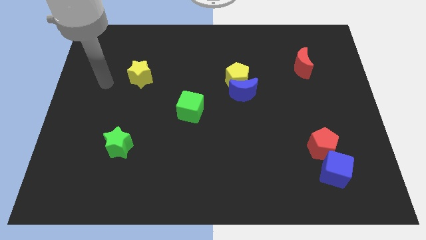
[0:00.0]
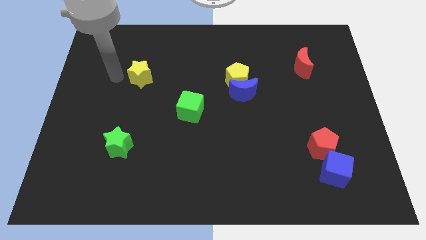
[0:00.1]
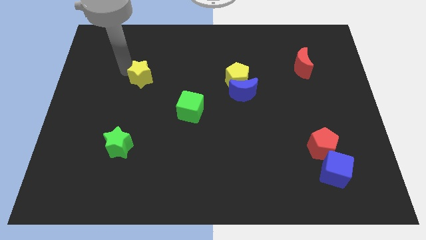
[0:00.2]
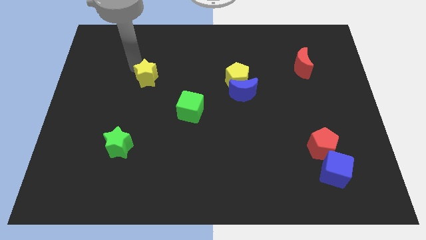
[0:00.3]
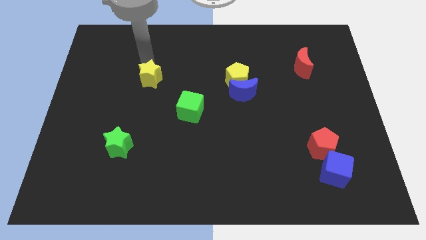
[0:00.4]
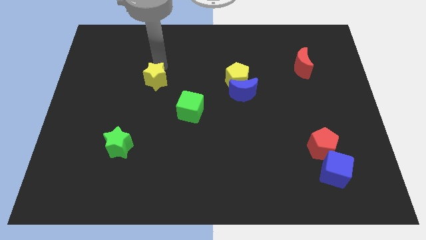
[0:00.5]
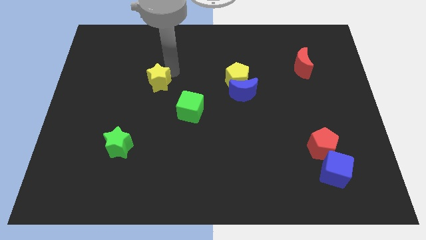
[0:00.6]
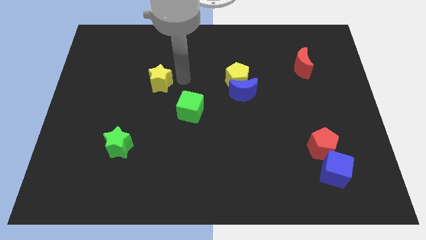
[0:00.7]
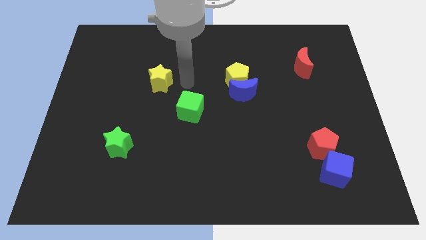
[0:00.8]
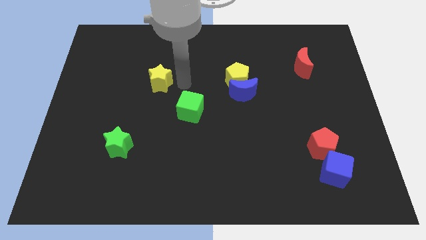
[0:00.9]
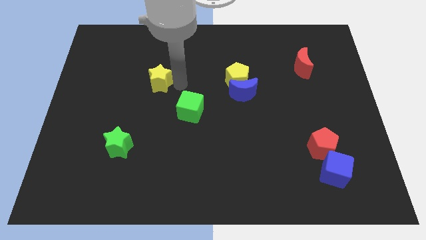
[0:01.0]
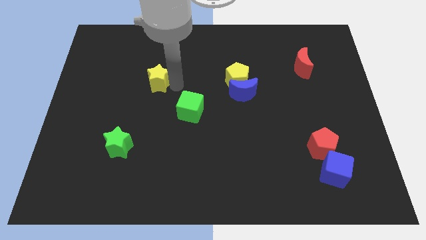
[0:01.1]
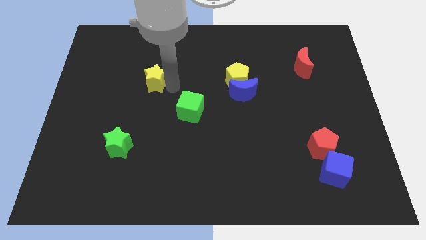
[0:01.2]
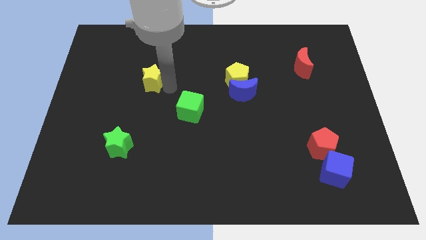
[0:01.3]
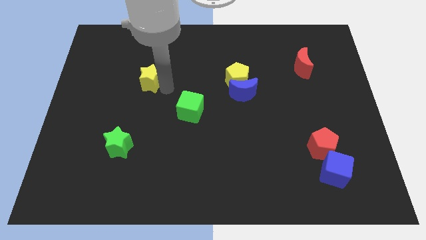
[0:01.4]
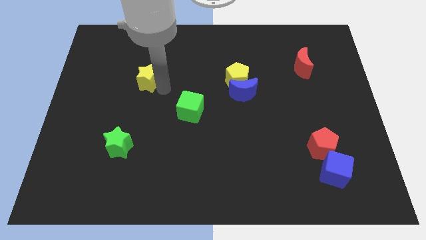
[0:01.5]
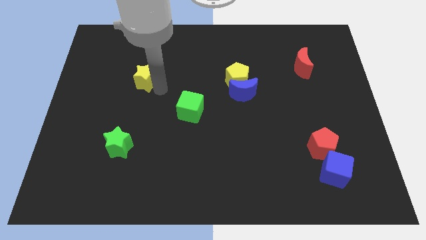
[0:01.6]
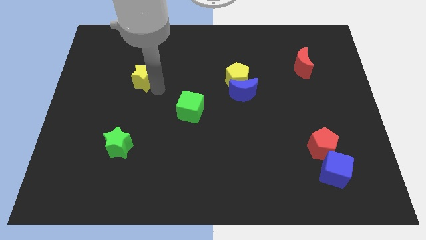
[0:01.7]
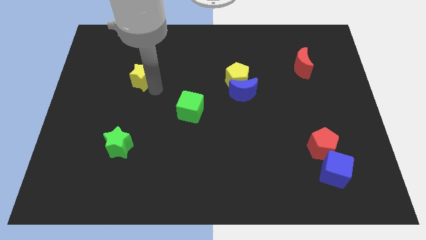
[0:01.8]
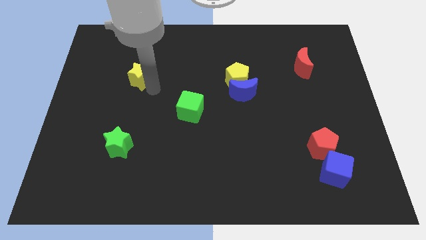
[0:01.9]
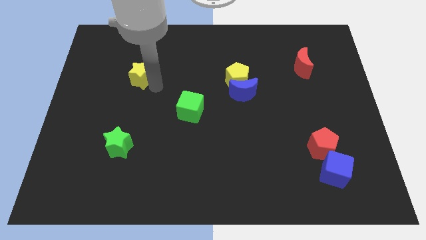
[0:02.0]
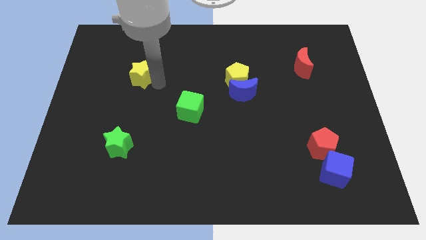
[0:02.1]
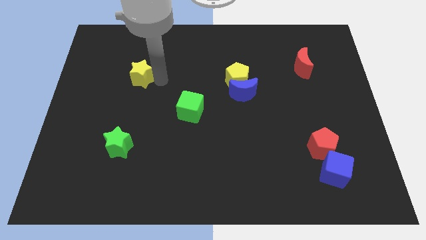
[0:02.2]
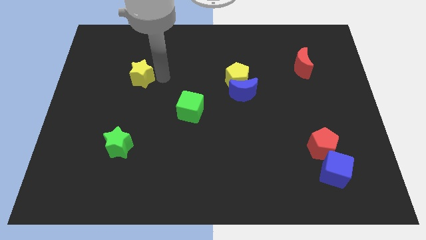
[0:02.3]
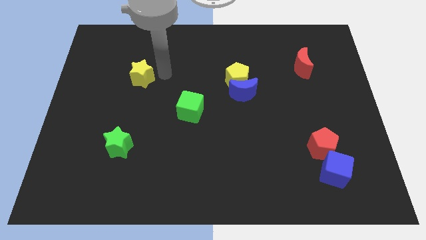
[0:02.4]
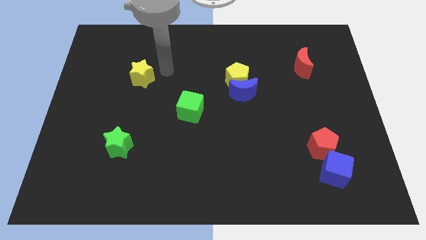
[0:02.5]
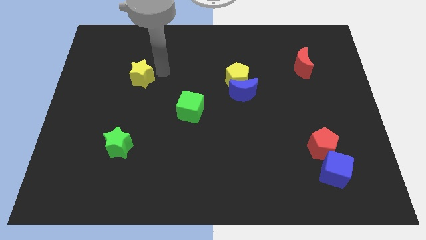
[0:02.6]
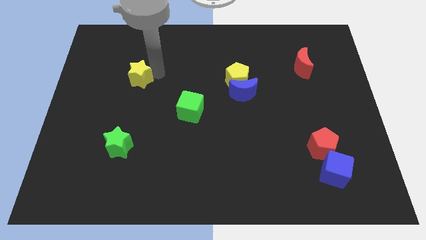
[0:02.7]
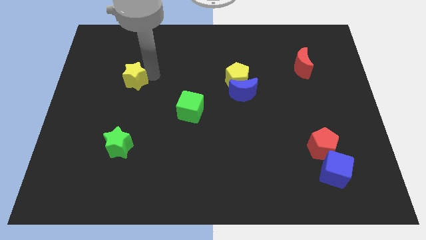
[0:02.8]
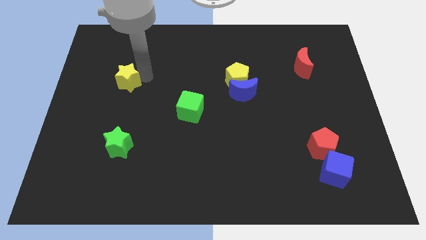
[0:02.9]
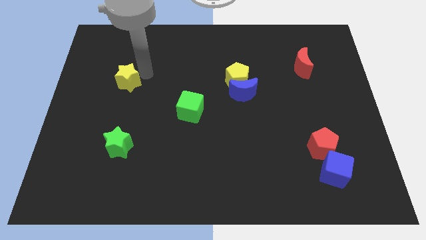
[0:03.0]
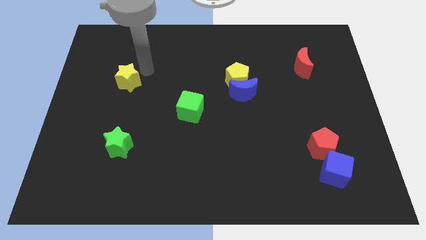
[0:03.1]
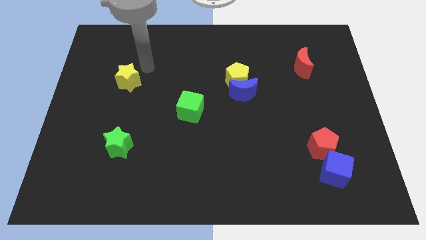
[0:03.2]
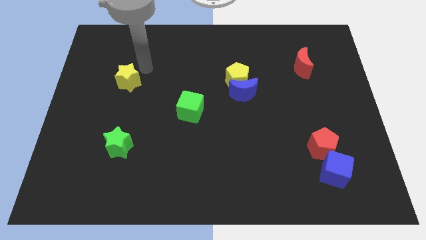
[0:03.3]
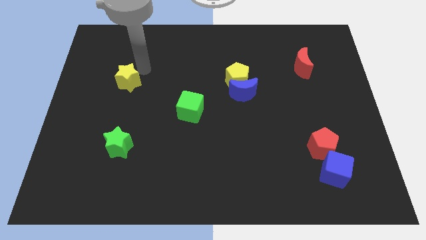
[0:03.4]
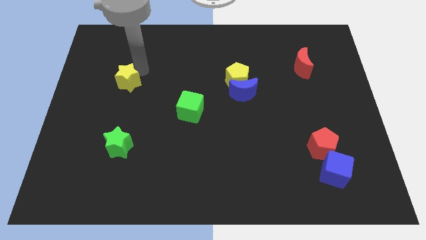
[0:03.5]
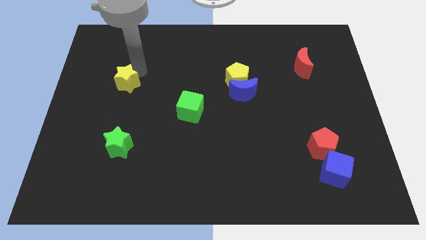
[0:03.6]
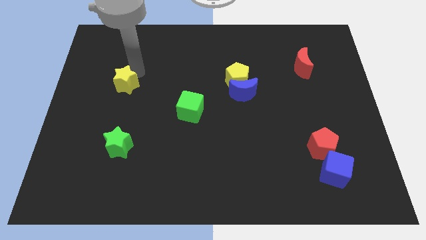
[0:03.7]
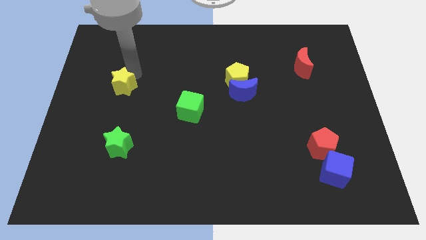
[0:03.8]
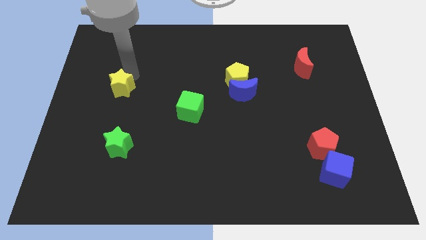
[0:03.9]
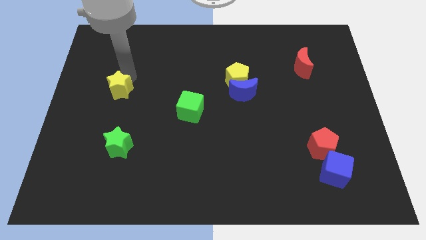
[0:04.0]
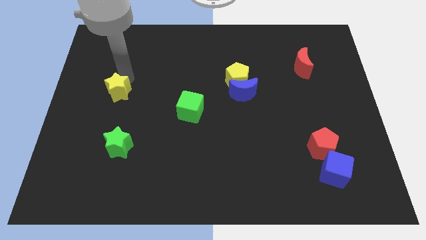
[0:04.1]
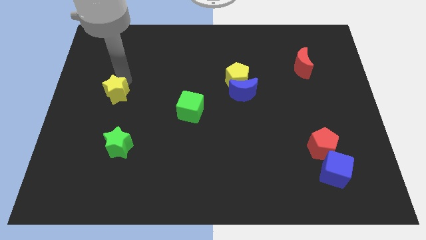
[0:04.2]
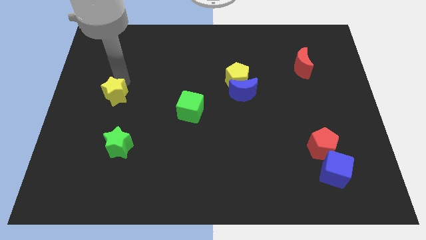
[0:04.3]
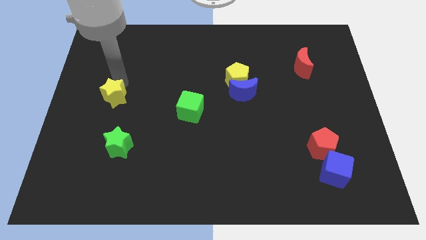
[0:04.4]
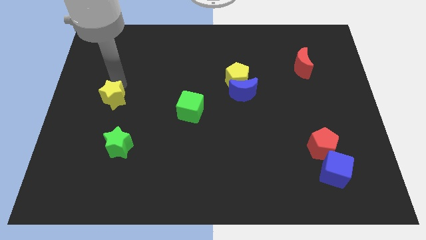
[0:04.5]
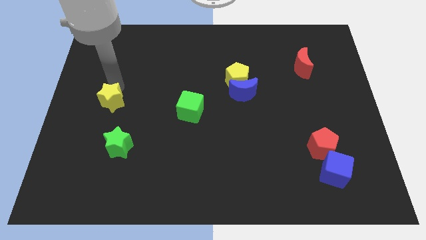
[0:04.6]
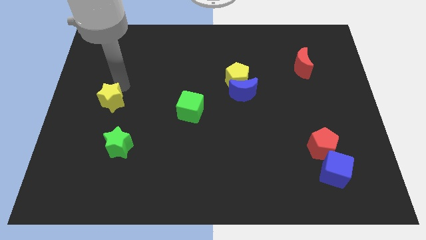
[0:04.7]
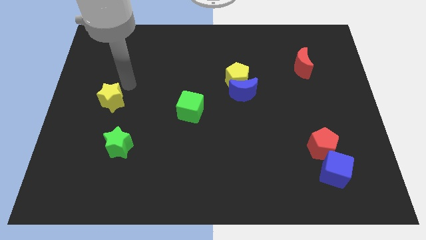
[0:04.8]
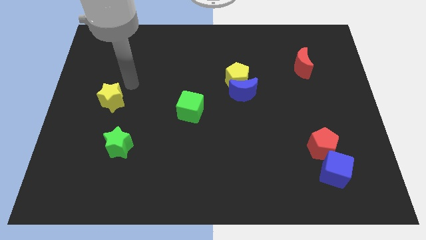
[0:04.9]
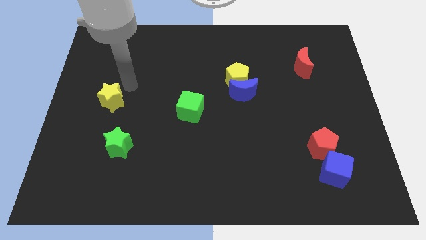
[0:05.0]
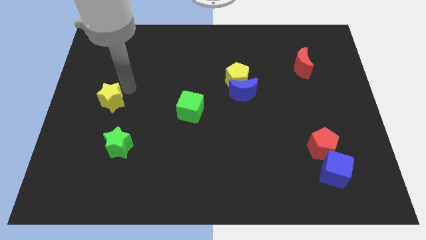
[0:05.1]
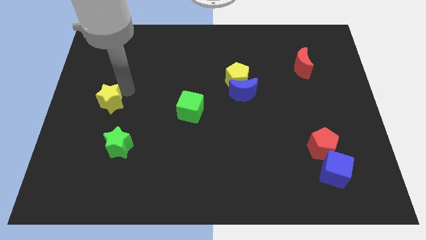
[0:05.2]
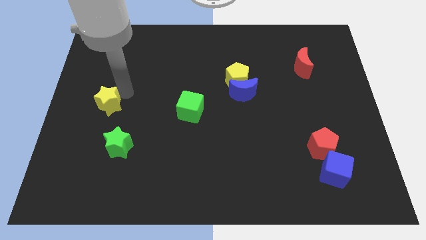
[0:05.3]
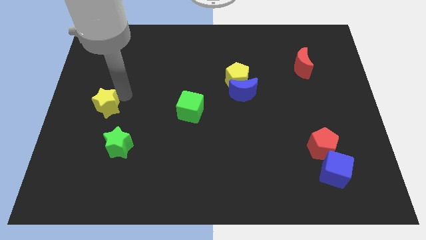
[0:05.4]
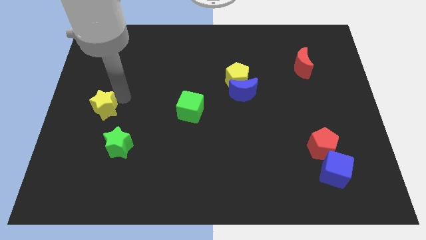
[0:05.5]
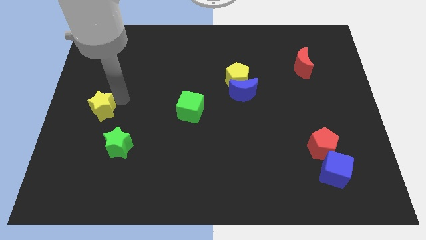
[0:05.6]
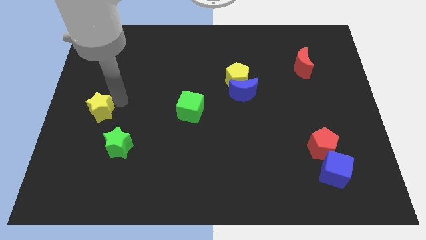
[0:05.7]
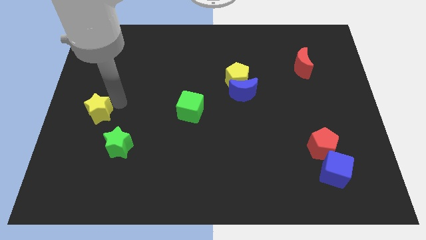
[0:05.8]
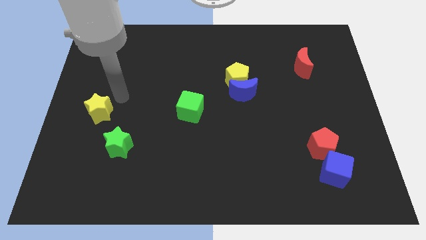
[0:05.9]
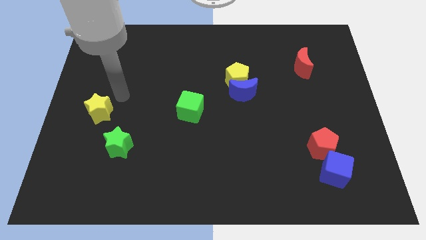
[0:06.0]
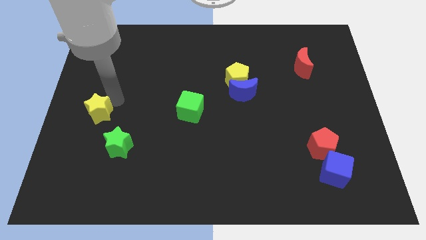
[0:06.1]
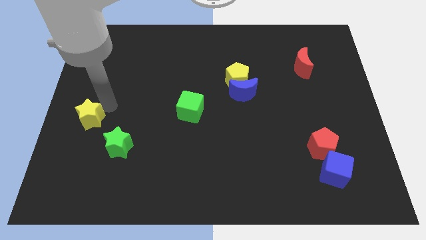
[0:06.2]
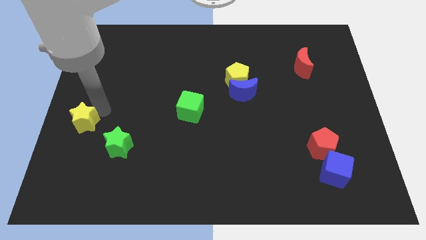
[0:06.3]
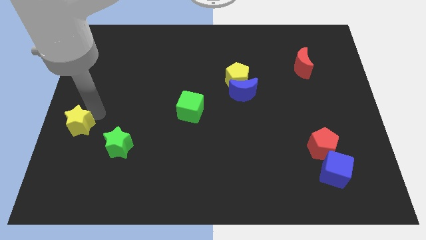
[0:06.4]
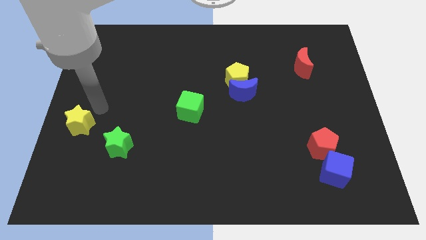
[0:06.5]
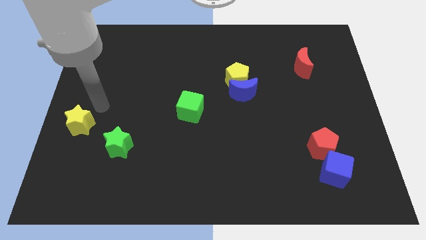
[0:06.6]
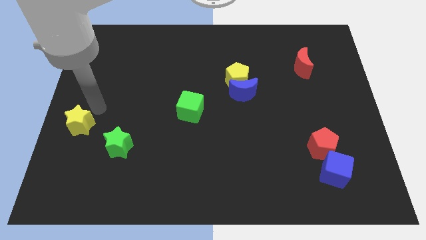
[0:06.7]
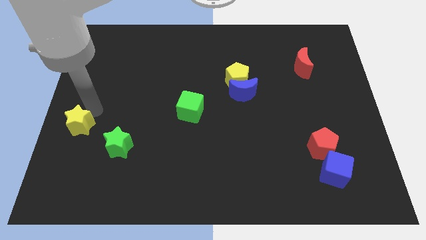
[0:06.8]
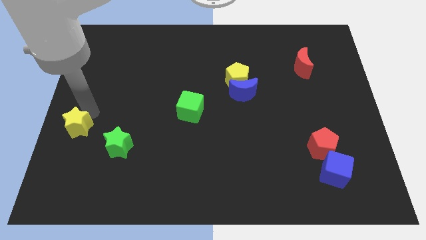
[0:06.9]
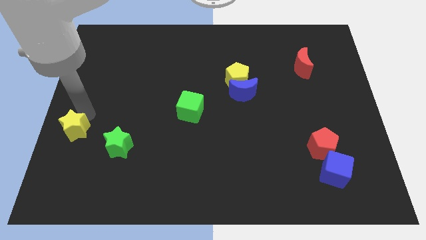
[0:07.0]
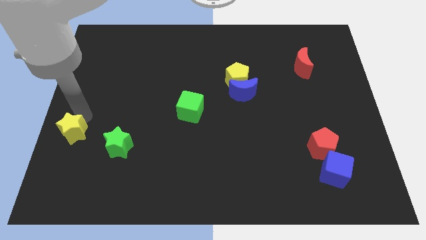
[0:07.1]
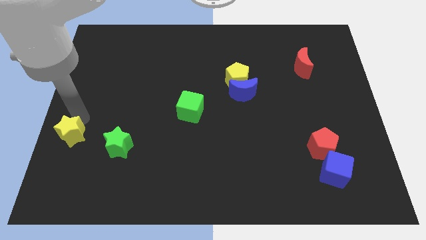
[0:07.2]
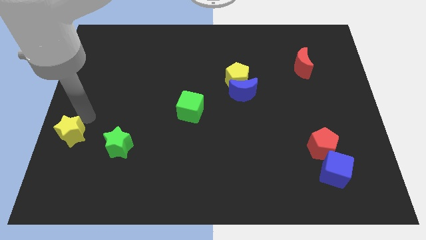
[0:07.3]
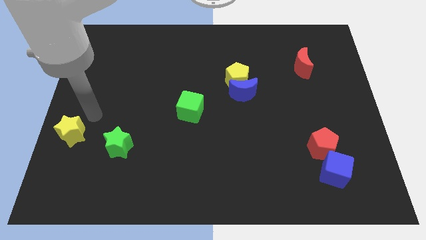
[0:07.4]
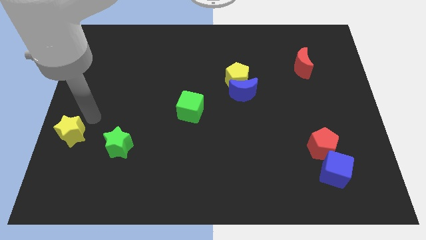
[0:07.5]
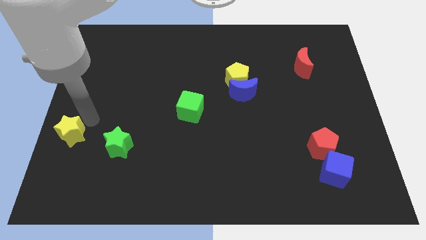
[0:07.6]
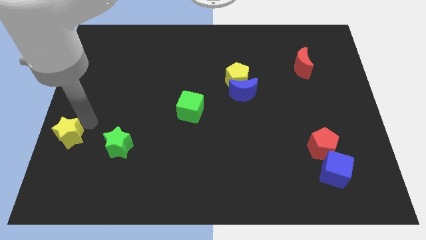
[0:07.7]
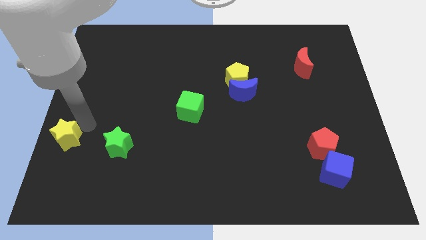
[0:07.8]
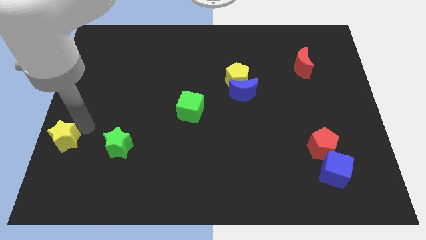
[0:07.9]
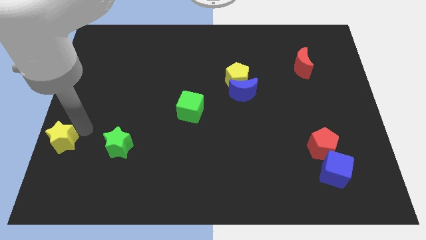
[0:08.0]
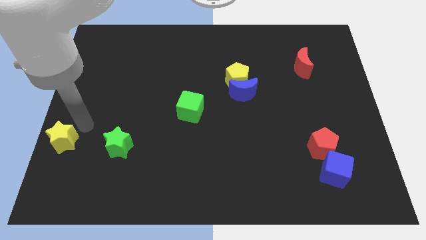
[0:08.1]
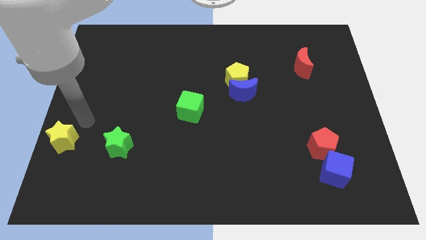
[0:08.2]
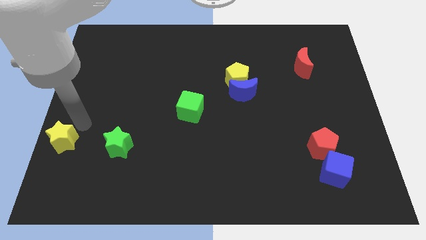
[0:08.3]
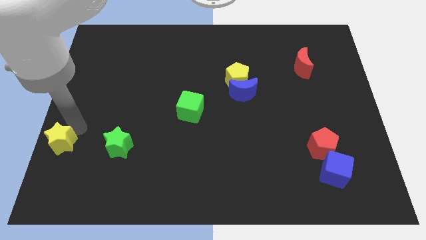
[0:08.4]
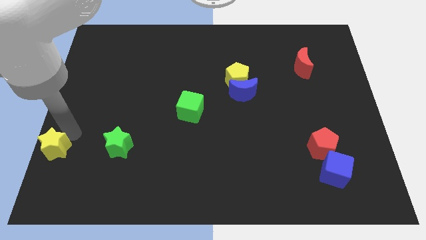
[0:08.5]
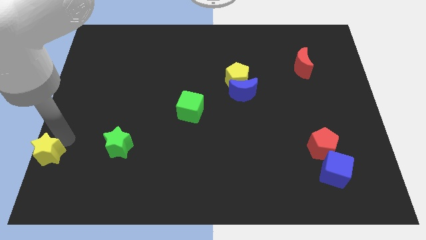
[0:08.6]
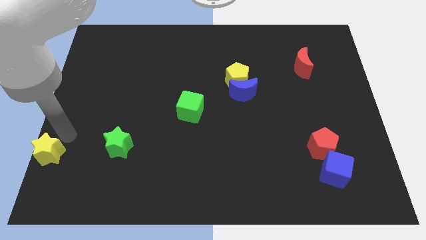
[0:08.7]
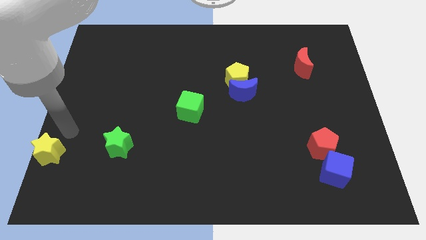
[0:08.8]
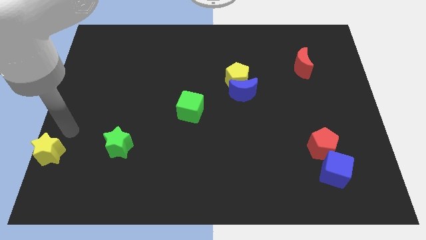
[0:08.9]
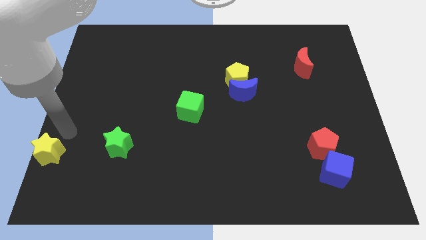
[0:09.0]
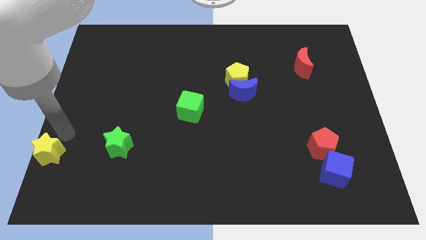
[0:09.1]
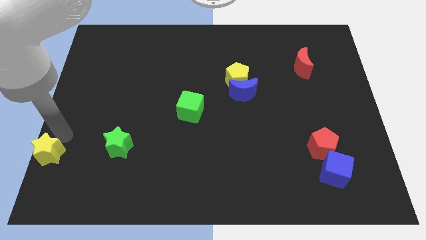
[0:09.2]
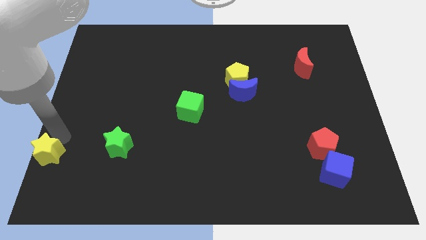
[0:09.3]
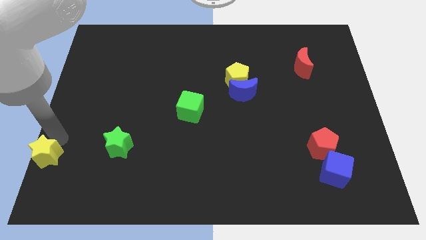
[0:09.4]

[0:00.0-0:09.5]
push the yellow star to the bottom left of the board
